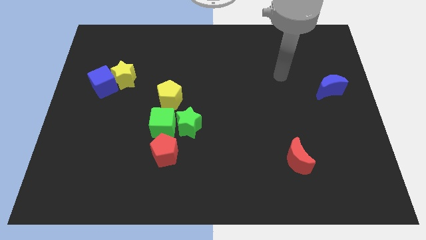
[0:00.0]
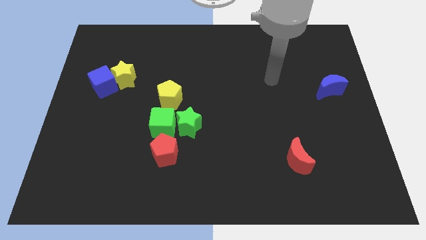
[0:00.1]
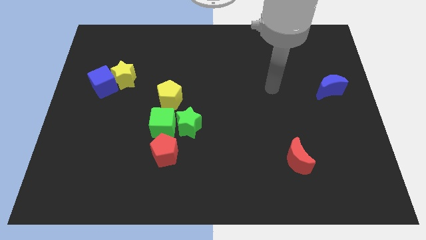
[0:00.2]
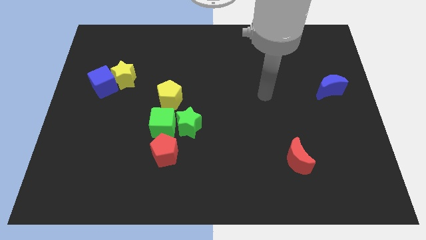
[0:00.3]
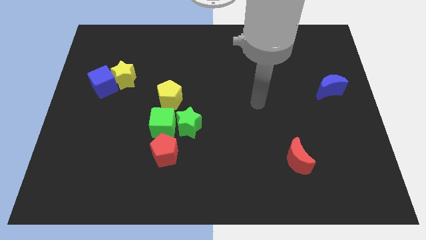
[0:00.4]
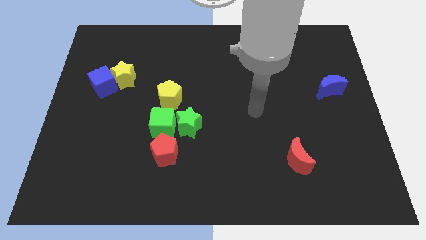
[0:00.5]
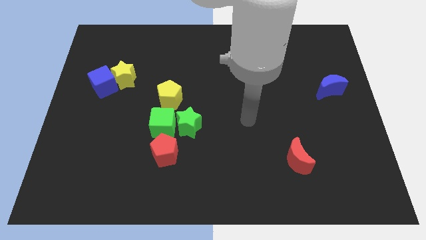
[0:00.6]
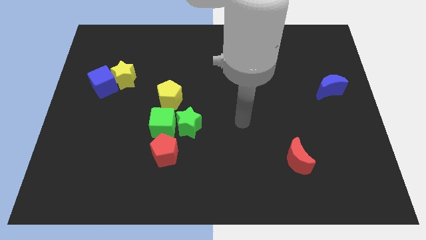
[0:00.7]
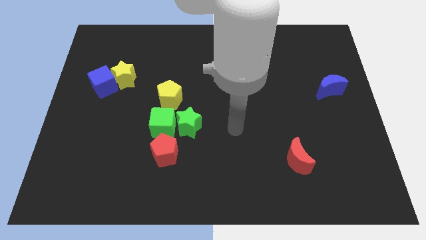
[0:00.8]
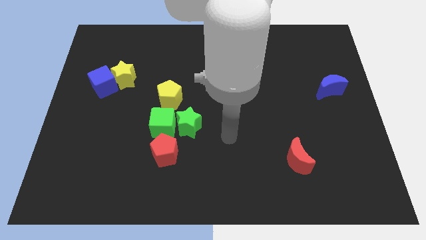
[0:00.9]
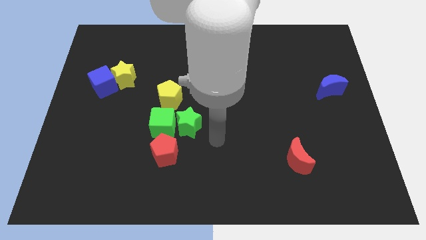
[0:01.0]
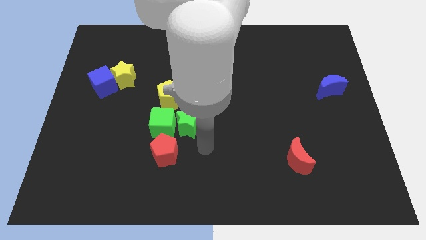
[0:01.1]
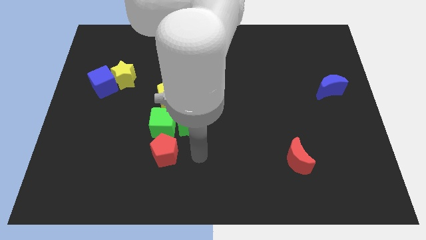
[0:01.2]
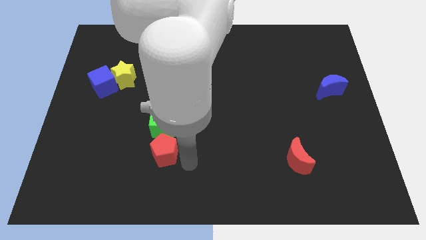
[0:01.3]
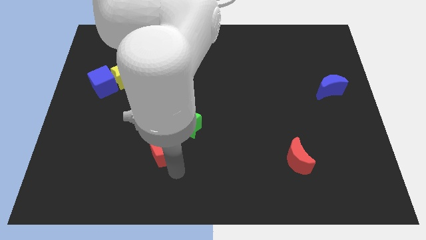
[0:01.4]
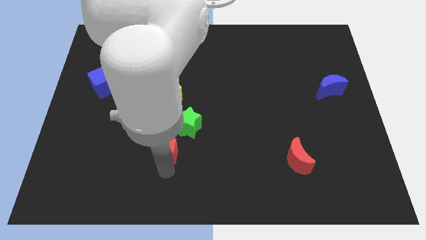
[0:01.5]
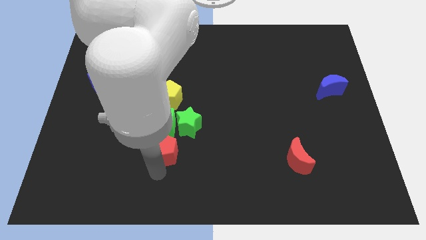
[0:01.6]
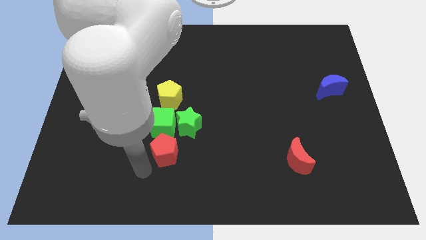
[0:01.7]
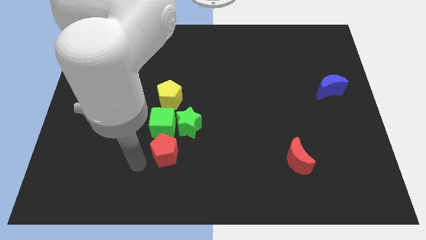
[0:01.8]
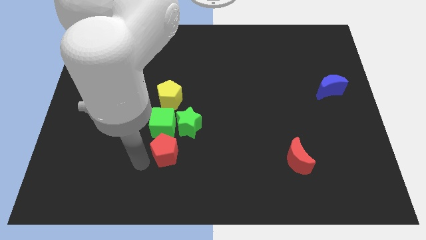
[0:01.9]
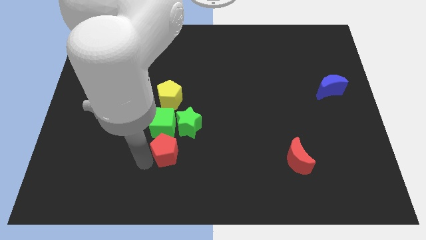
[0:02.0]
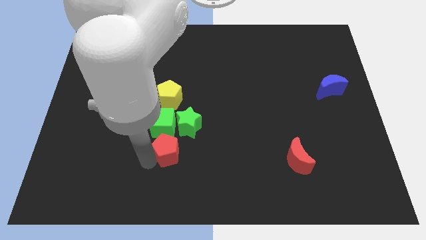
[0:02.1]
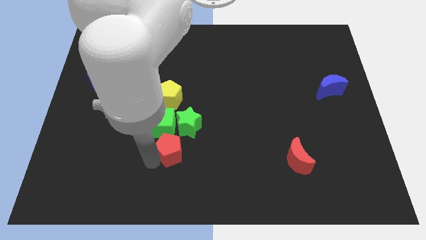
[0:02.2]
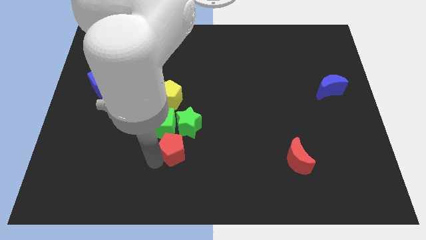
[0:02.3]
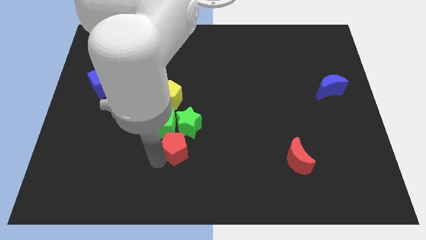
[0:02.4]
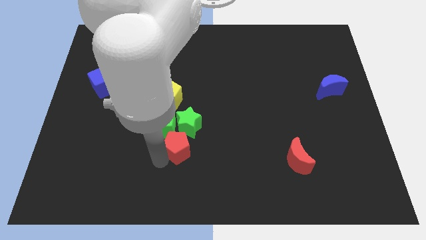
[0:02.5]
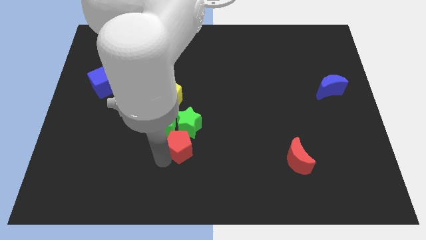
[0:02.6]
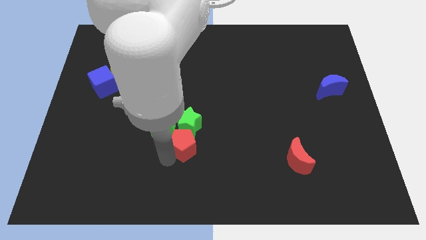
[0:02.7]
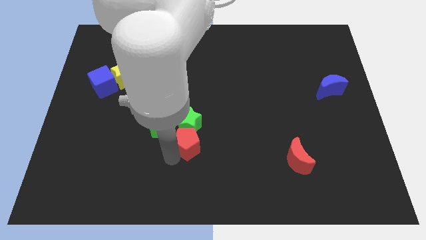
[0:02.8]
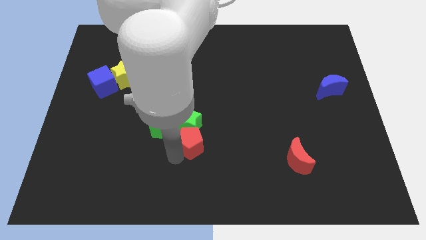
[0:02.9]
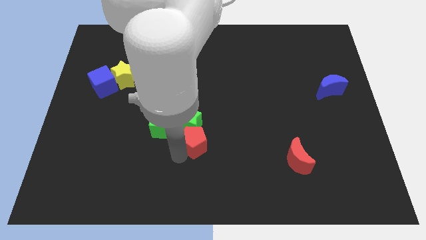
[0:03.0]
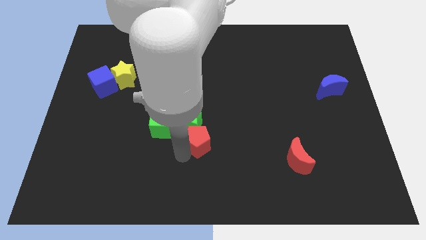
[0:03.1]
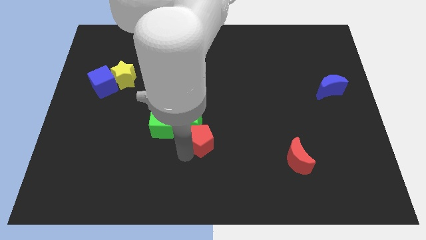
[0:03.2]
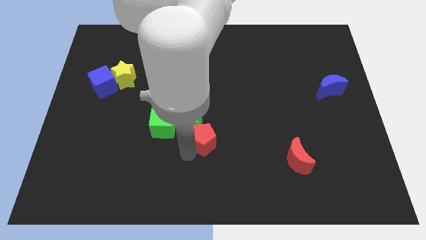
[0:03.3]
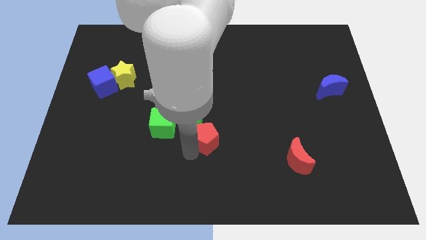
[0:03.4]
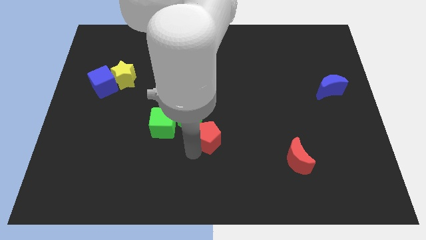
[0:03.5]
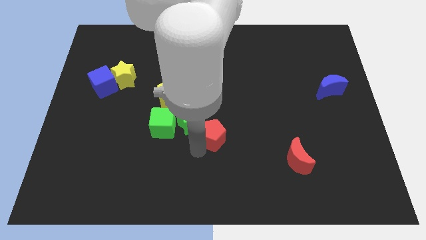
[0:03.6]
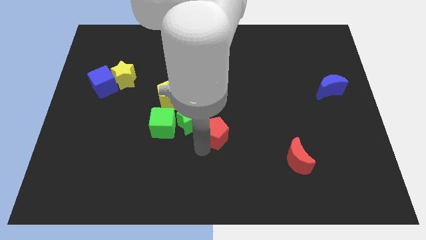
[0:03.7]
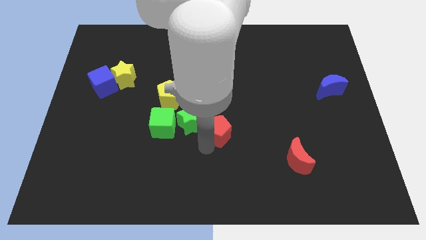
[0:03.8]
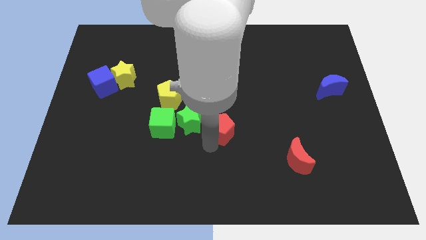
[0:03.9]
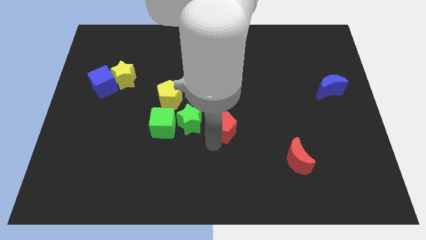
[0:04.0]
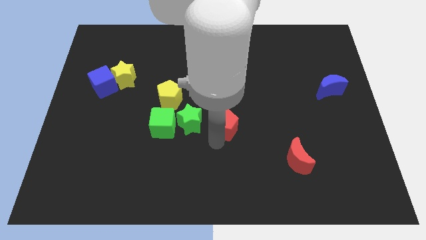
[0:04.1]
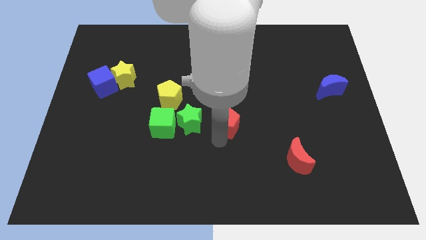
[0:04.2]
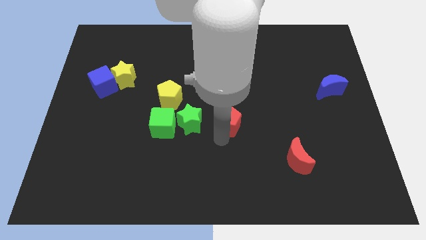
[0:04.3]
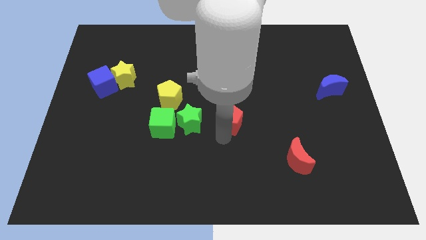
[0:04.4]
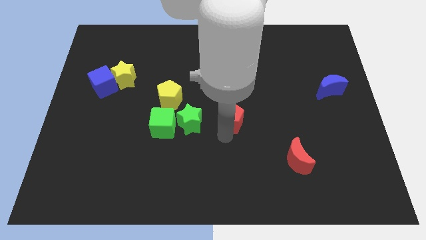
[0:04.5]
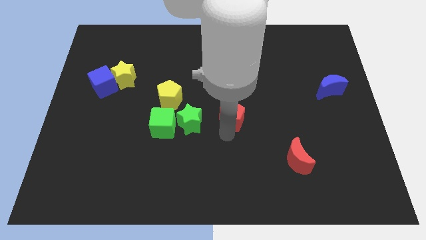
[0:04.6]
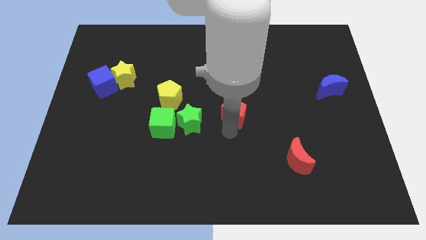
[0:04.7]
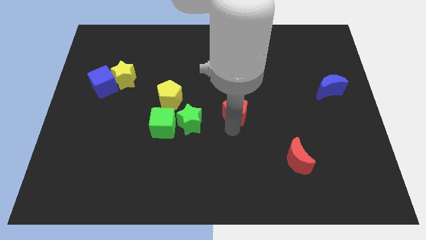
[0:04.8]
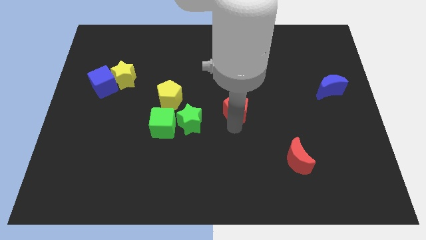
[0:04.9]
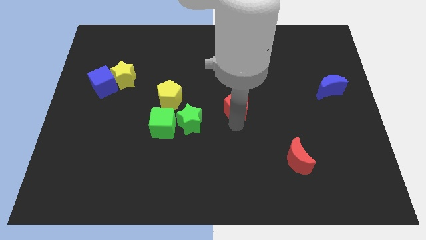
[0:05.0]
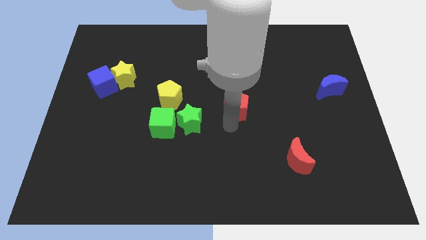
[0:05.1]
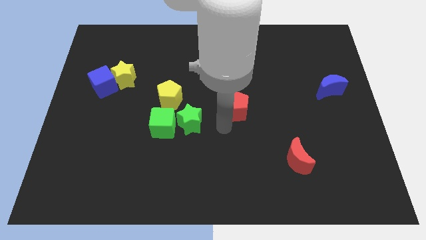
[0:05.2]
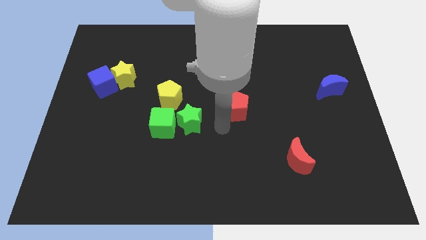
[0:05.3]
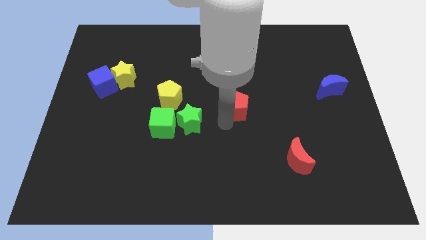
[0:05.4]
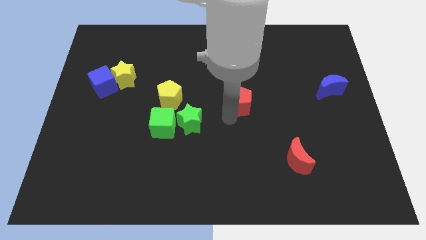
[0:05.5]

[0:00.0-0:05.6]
move the red pentagon diagonally upwards and right

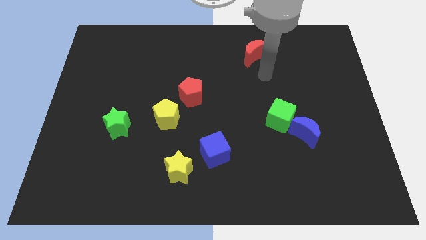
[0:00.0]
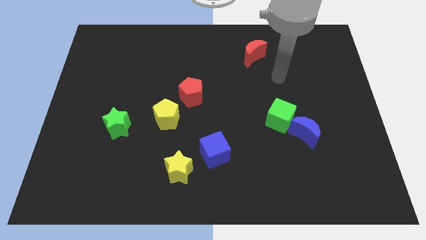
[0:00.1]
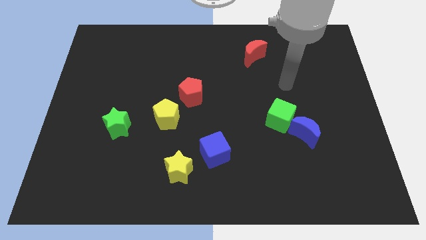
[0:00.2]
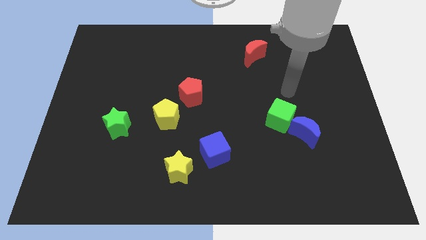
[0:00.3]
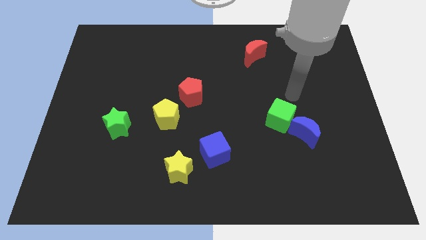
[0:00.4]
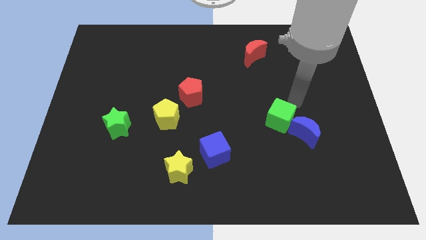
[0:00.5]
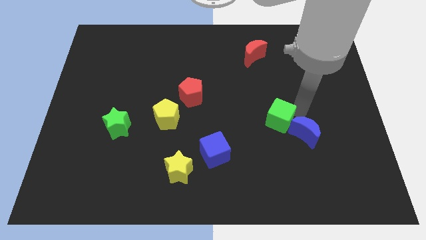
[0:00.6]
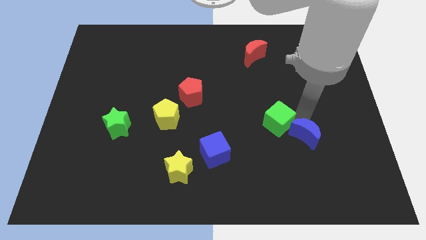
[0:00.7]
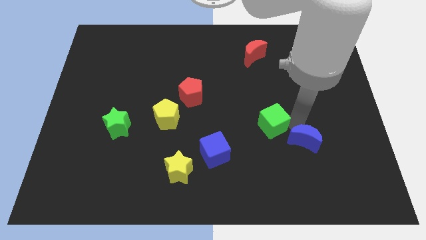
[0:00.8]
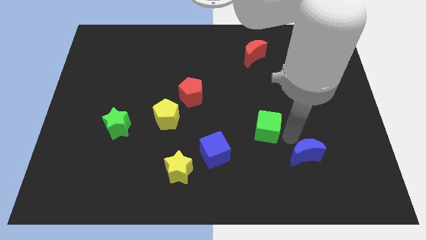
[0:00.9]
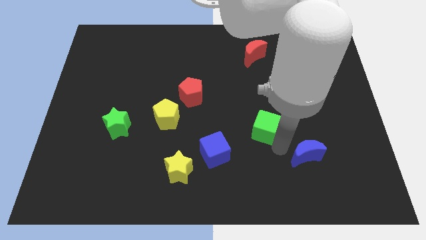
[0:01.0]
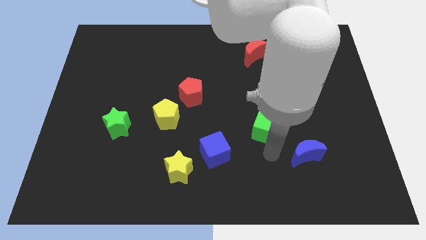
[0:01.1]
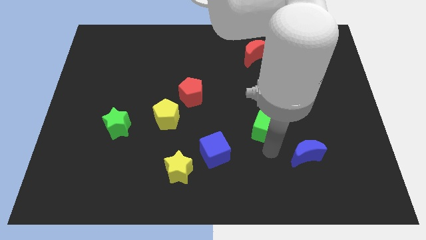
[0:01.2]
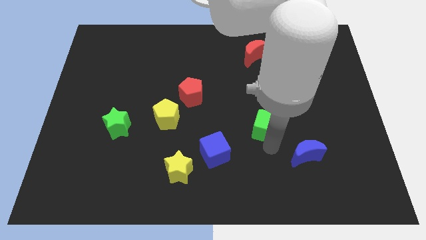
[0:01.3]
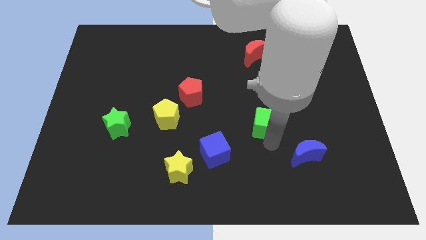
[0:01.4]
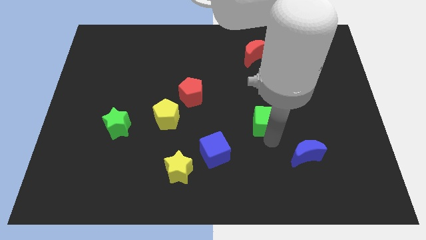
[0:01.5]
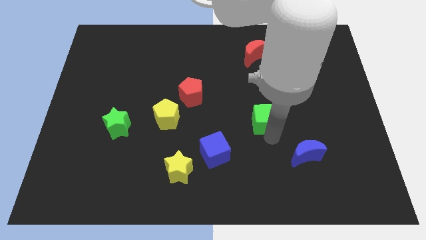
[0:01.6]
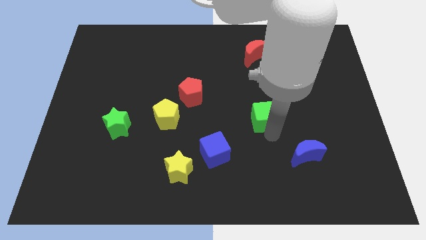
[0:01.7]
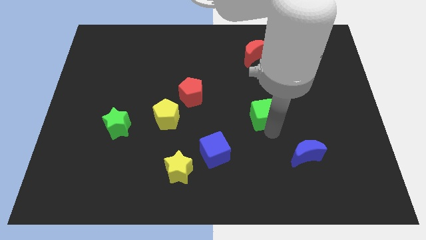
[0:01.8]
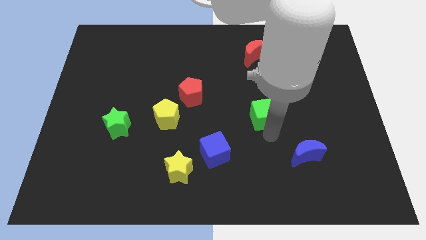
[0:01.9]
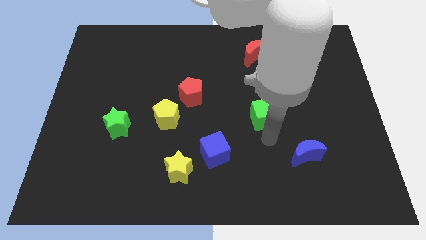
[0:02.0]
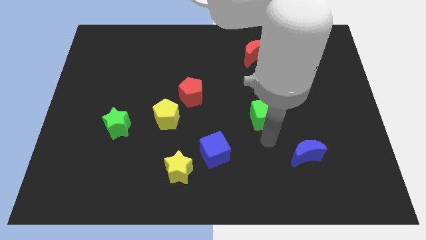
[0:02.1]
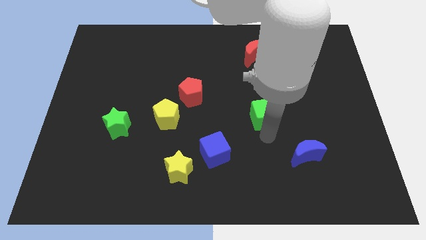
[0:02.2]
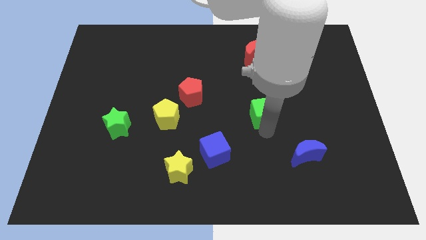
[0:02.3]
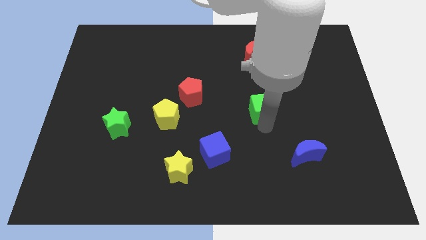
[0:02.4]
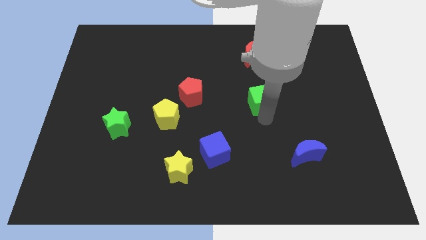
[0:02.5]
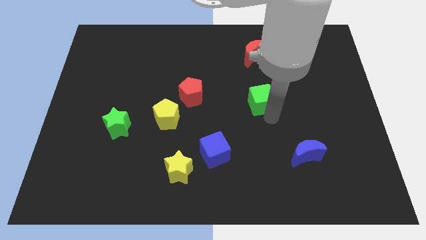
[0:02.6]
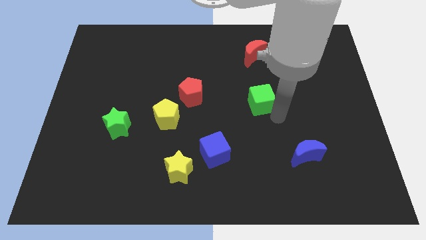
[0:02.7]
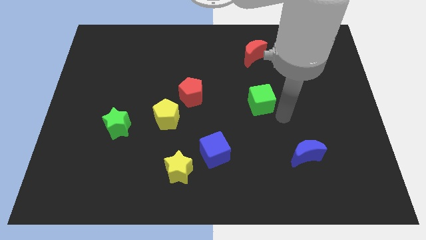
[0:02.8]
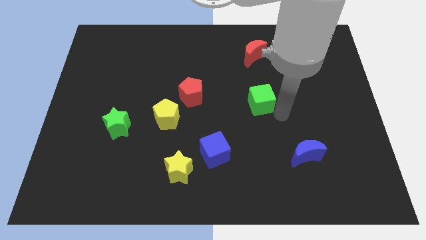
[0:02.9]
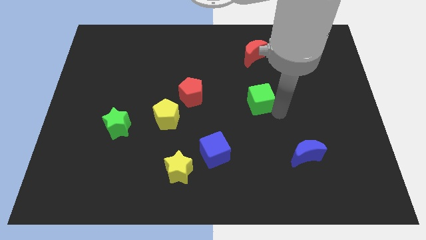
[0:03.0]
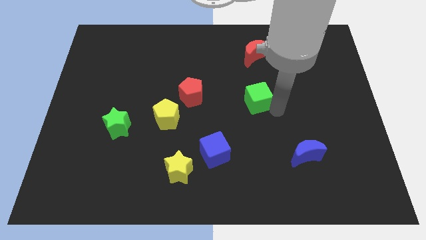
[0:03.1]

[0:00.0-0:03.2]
slide the green cube diagonally up and left slightly
